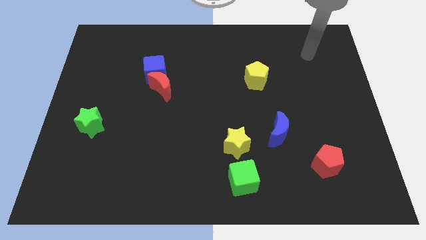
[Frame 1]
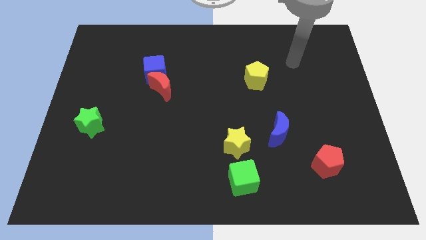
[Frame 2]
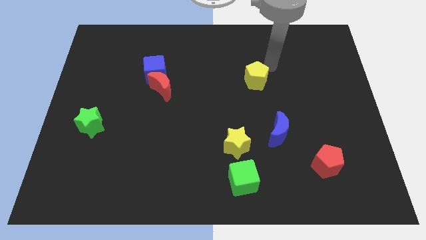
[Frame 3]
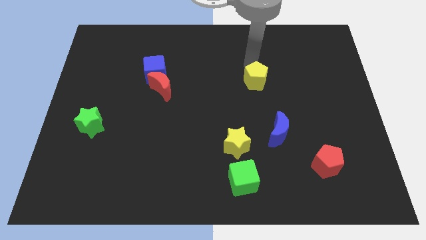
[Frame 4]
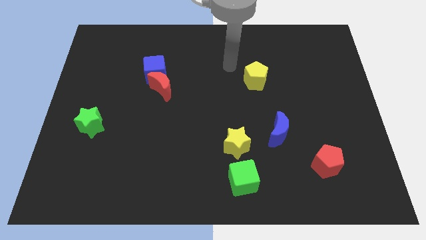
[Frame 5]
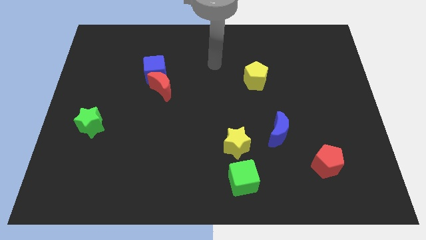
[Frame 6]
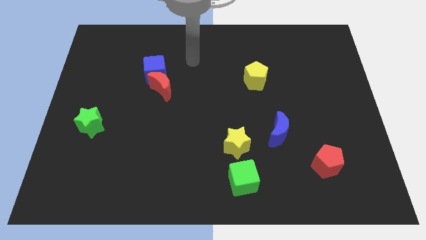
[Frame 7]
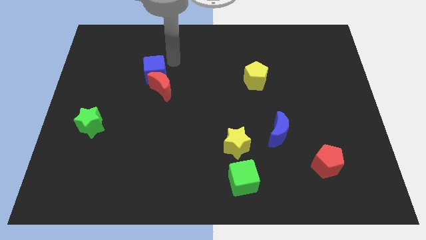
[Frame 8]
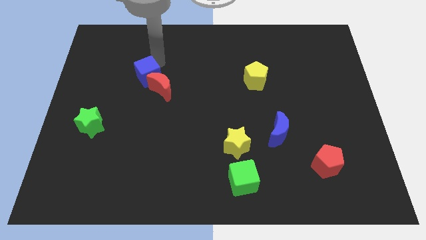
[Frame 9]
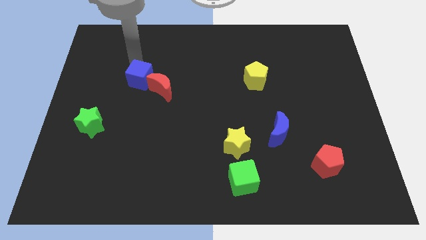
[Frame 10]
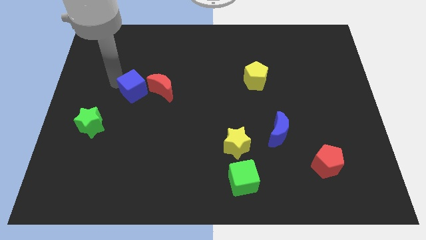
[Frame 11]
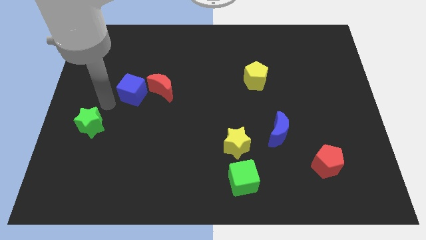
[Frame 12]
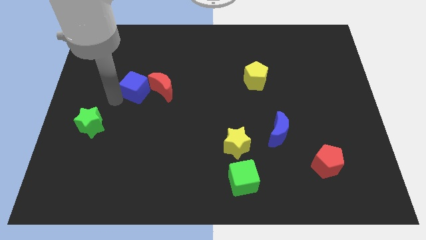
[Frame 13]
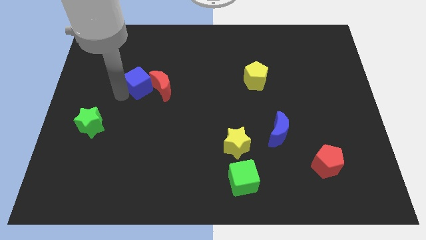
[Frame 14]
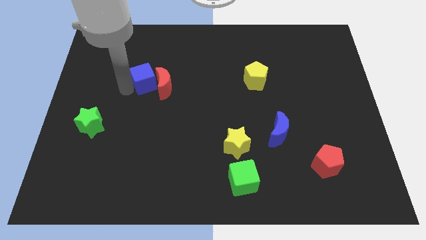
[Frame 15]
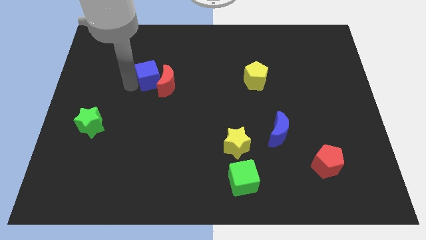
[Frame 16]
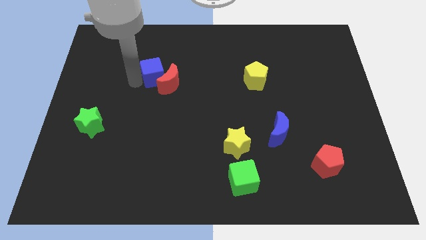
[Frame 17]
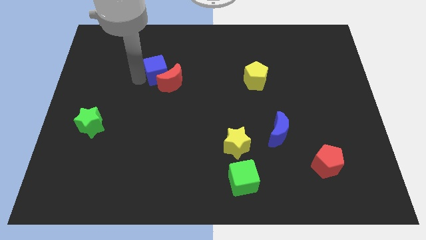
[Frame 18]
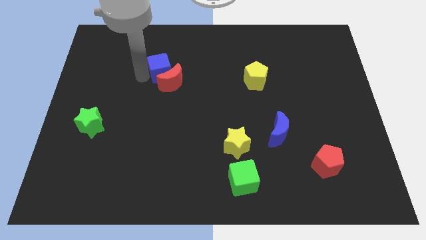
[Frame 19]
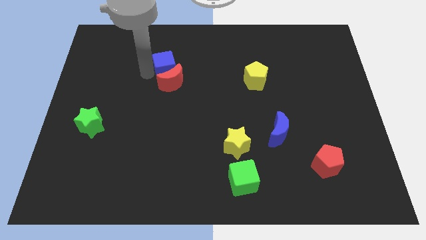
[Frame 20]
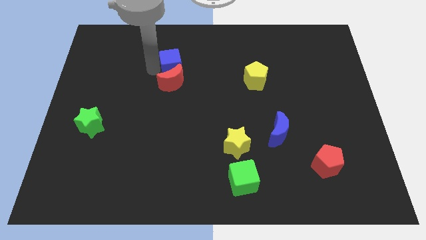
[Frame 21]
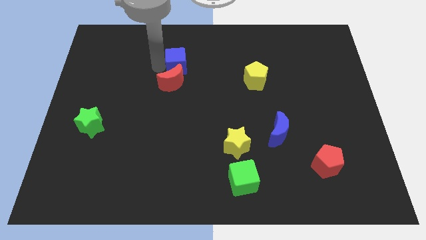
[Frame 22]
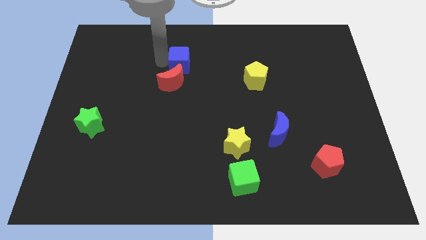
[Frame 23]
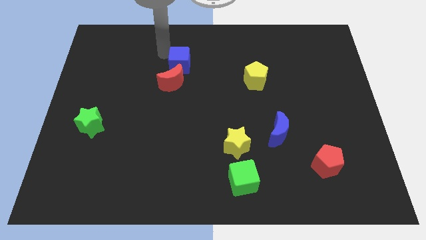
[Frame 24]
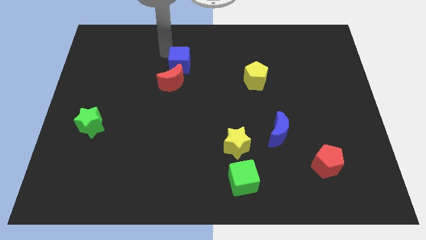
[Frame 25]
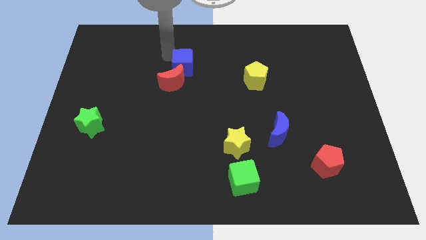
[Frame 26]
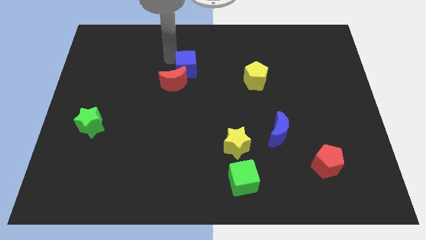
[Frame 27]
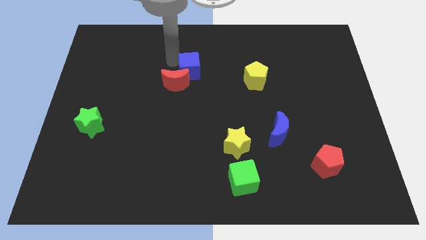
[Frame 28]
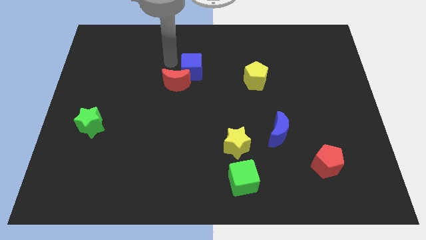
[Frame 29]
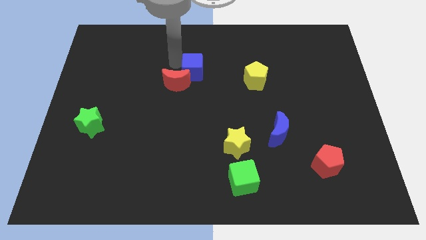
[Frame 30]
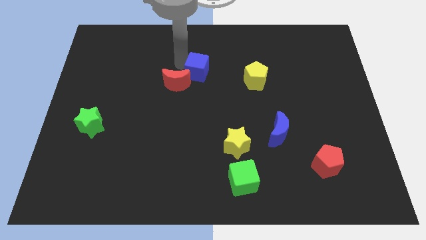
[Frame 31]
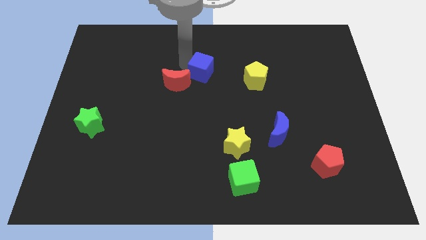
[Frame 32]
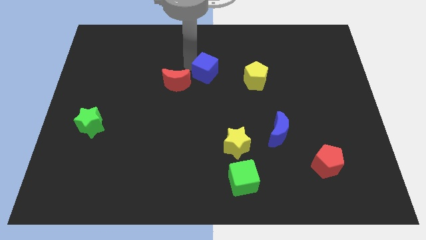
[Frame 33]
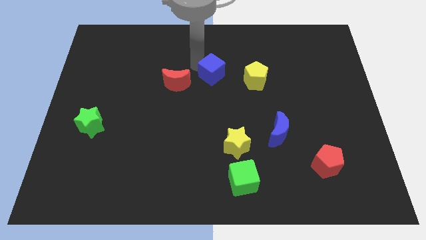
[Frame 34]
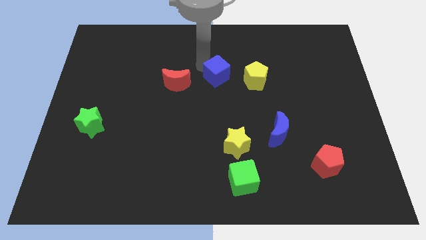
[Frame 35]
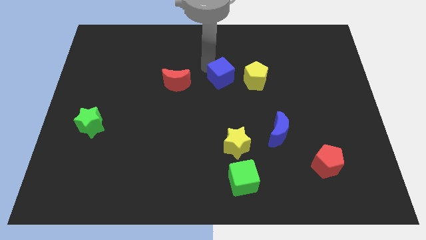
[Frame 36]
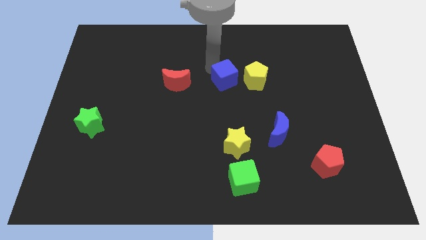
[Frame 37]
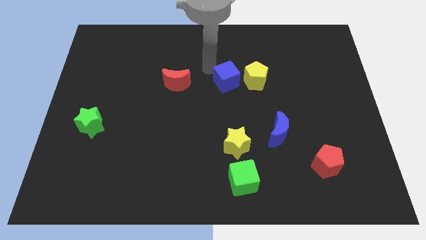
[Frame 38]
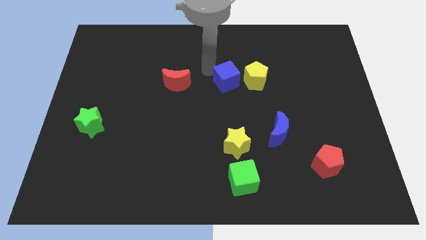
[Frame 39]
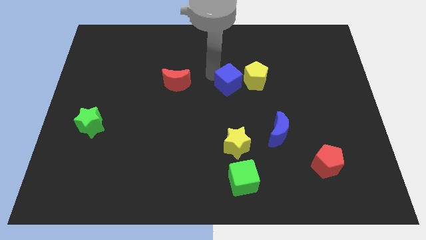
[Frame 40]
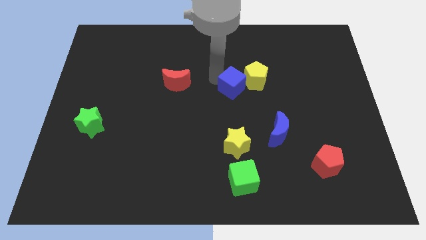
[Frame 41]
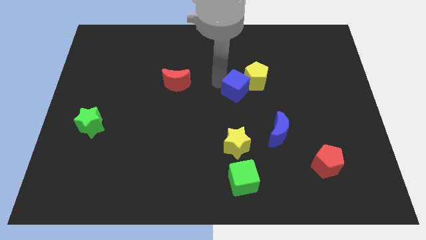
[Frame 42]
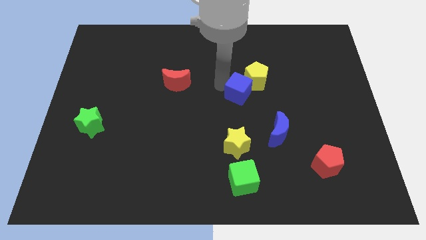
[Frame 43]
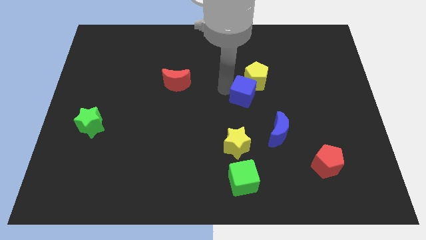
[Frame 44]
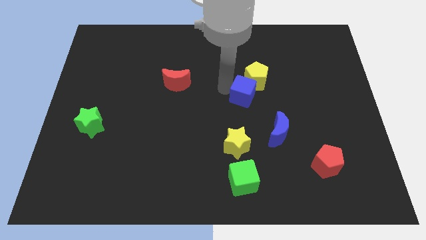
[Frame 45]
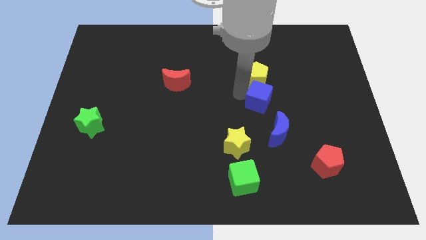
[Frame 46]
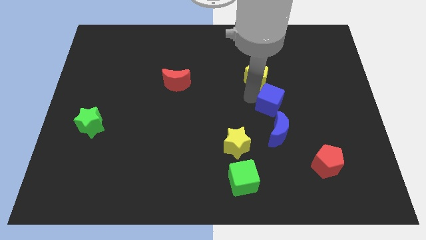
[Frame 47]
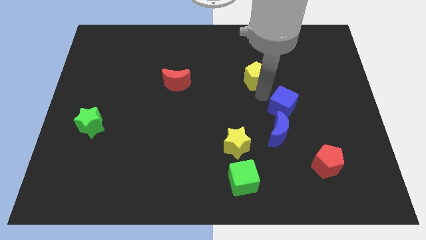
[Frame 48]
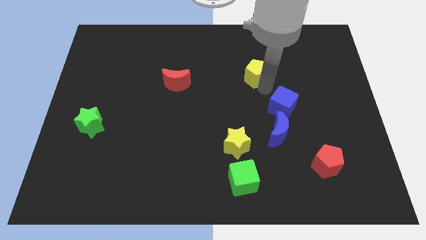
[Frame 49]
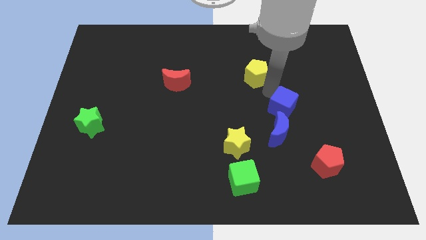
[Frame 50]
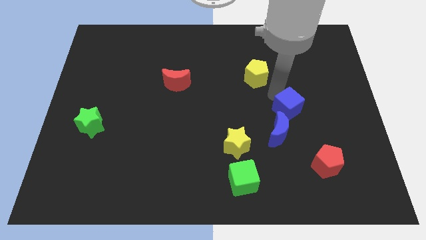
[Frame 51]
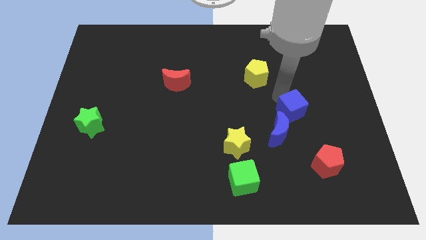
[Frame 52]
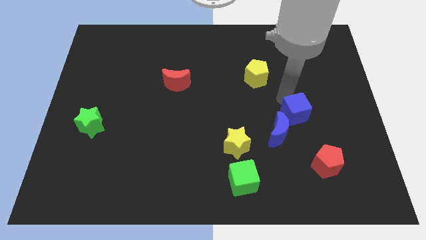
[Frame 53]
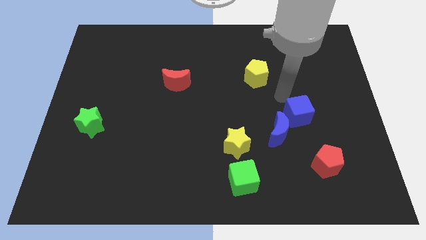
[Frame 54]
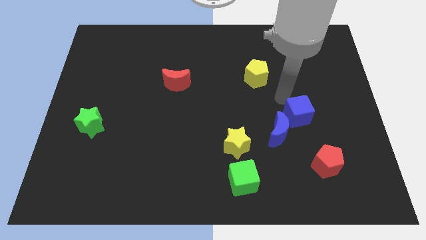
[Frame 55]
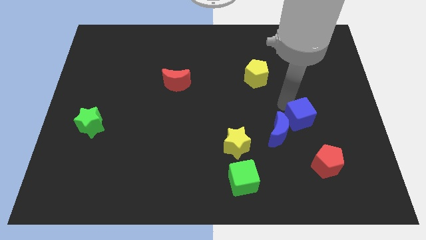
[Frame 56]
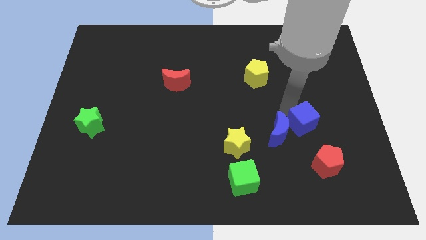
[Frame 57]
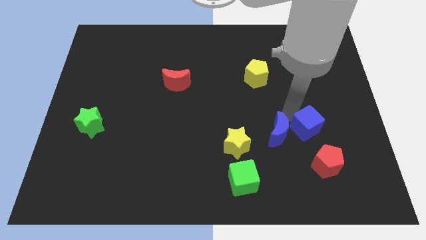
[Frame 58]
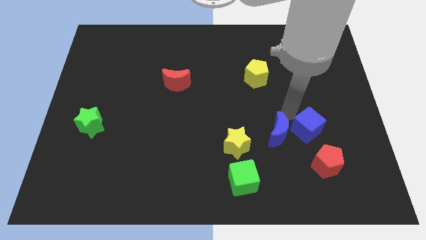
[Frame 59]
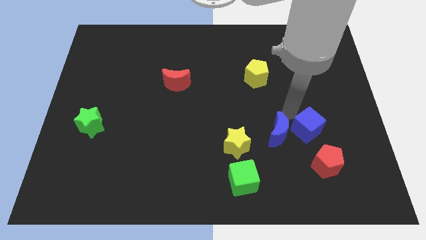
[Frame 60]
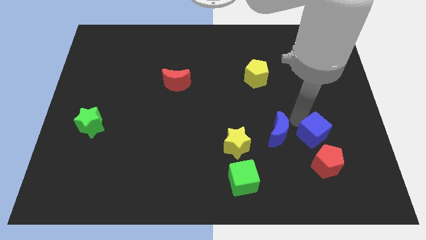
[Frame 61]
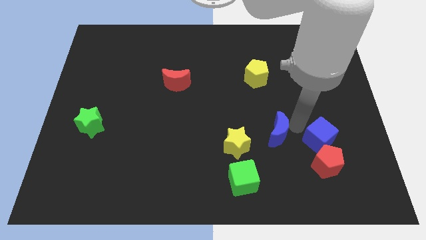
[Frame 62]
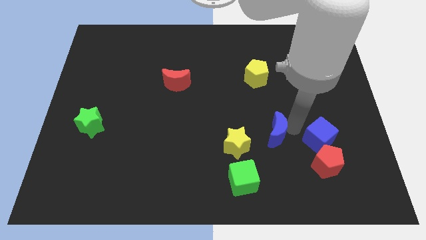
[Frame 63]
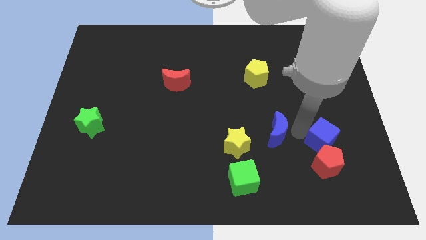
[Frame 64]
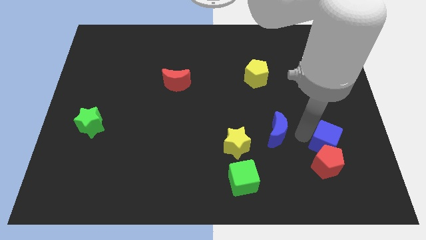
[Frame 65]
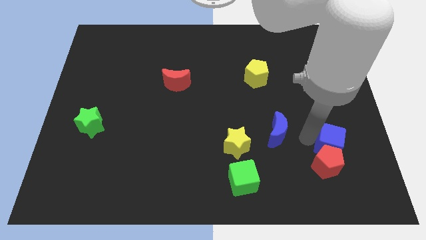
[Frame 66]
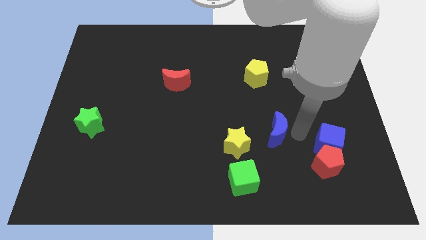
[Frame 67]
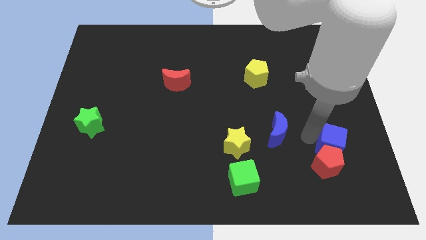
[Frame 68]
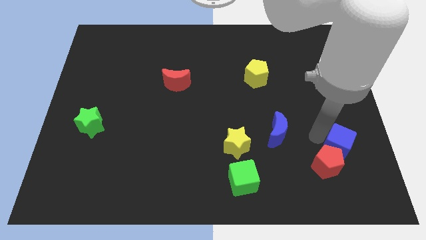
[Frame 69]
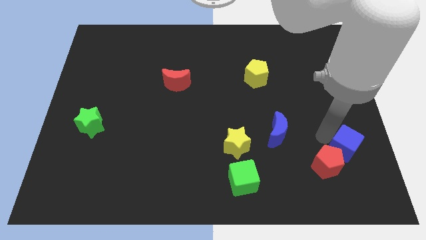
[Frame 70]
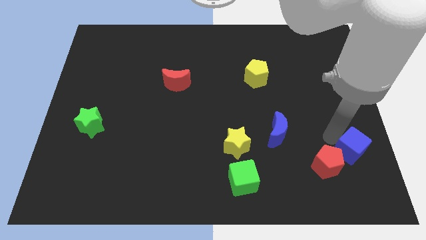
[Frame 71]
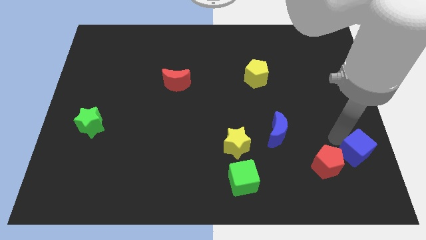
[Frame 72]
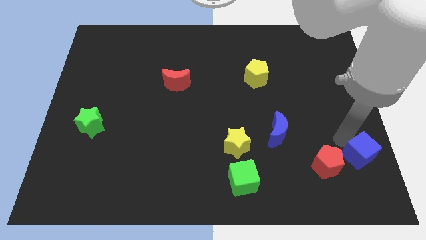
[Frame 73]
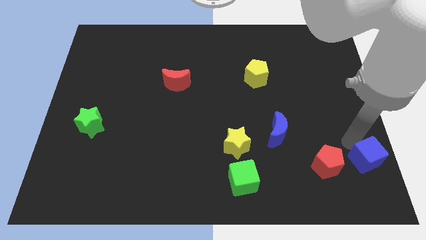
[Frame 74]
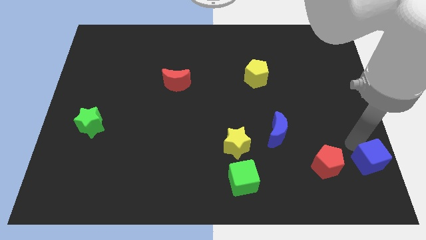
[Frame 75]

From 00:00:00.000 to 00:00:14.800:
push the blue cube to the bottom right corner
